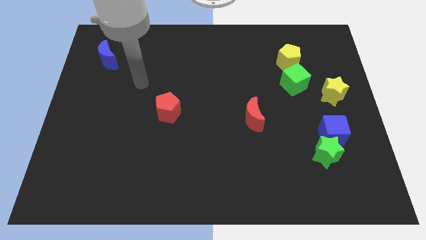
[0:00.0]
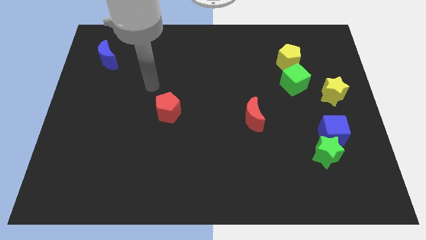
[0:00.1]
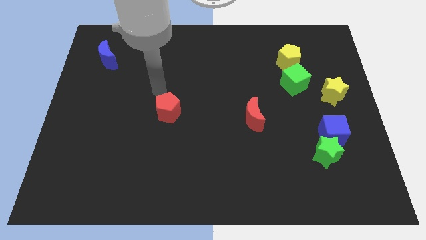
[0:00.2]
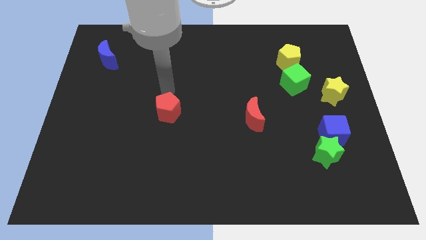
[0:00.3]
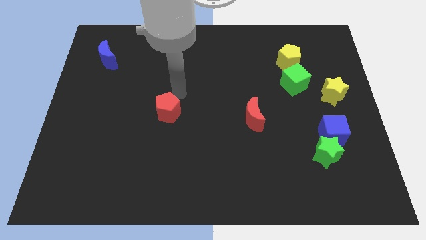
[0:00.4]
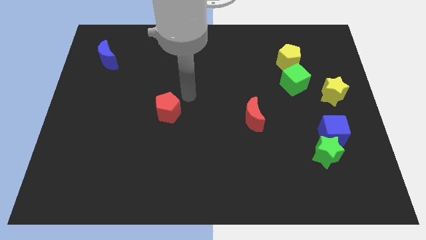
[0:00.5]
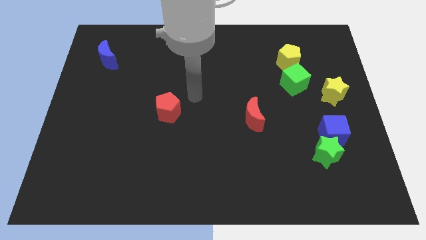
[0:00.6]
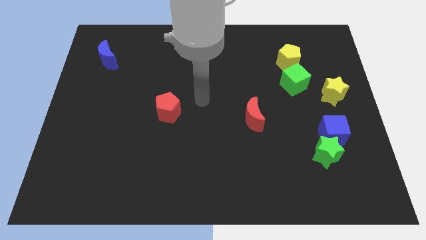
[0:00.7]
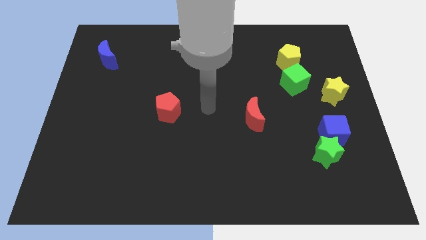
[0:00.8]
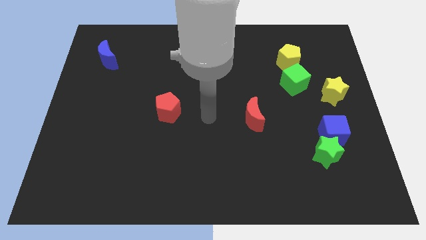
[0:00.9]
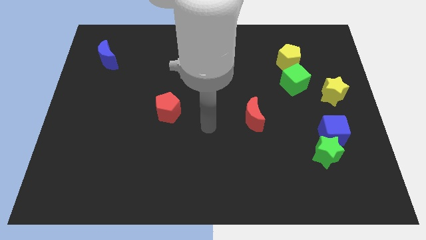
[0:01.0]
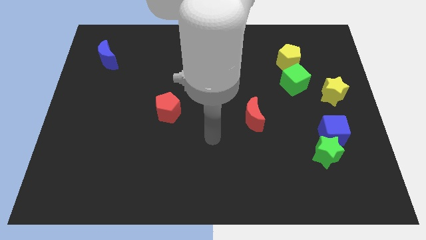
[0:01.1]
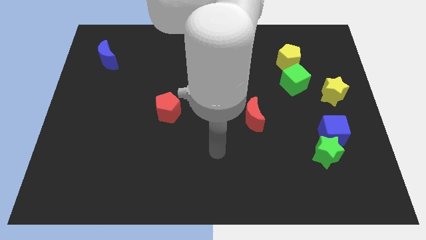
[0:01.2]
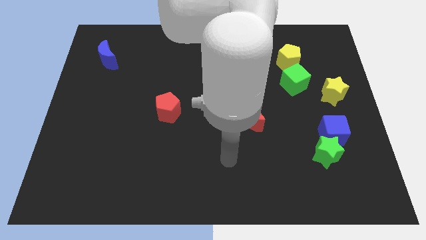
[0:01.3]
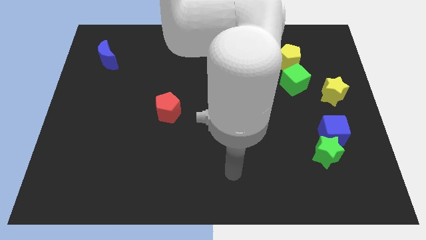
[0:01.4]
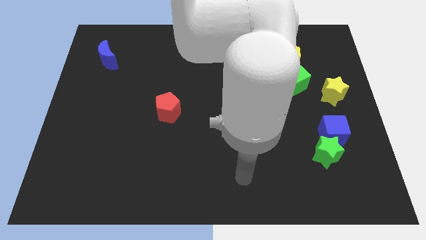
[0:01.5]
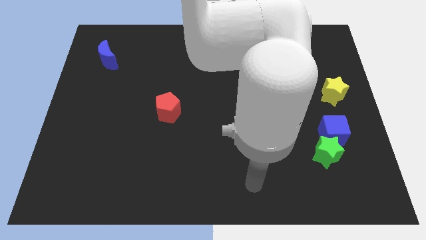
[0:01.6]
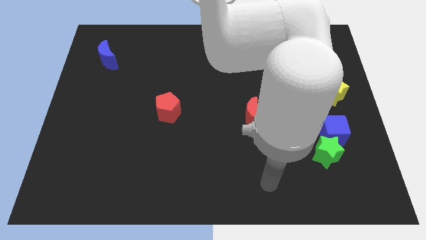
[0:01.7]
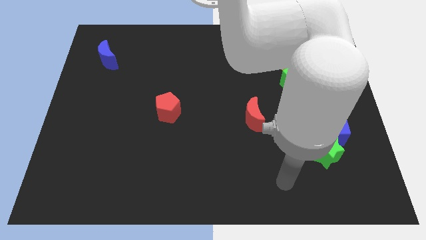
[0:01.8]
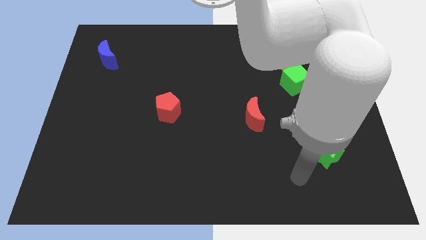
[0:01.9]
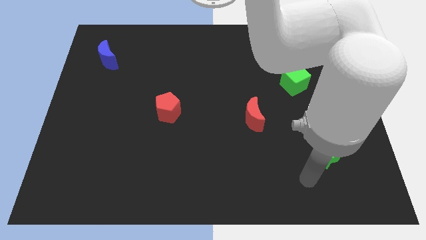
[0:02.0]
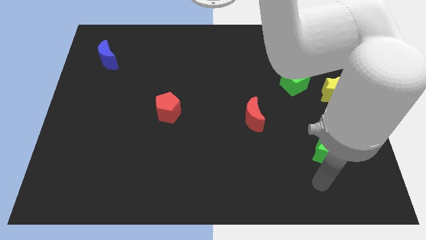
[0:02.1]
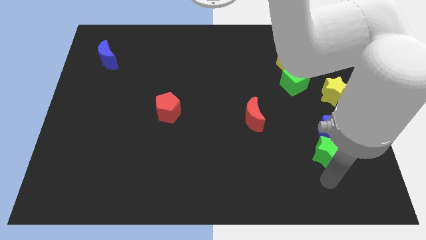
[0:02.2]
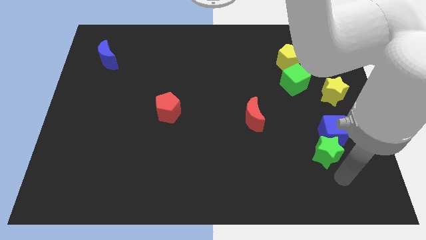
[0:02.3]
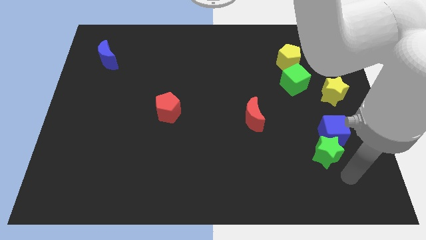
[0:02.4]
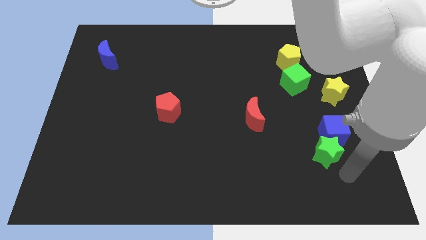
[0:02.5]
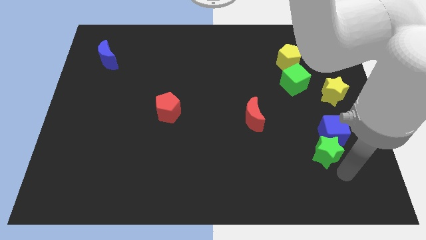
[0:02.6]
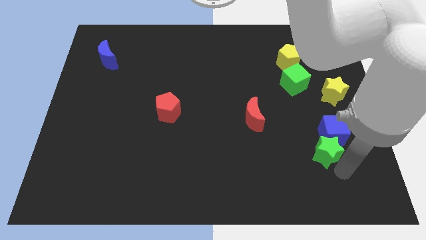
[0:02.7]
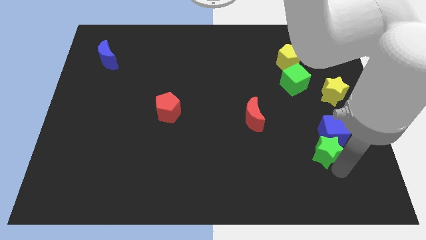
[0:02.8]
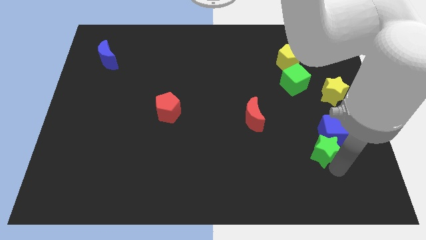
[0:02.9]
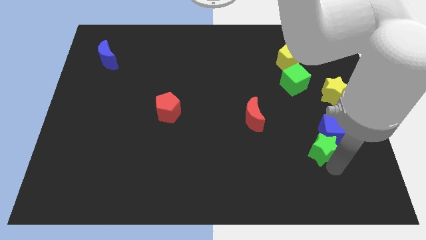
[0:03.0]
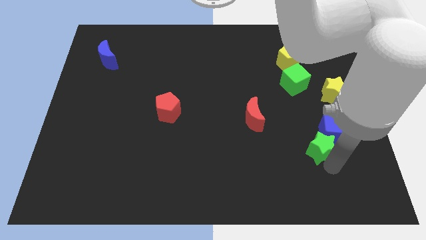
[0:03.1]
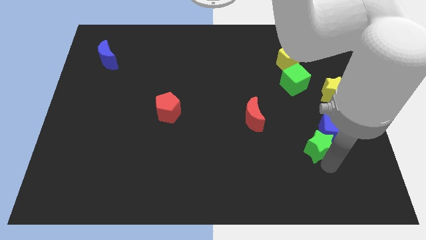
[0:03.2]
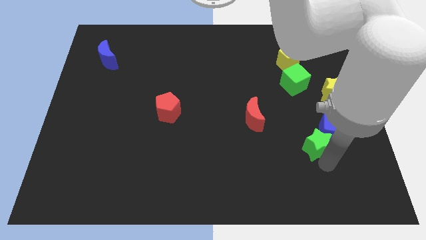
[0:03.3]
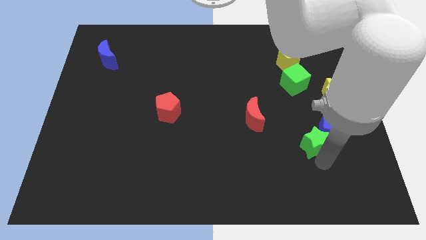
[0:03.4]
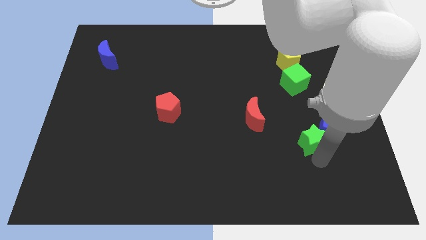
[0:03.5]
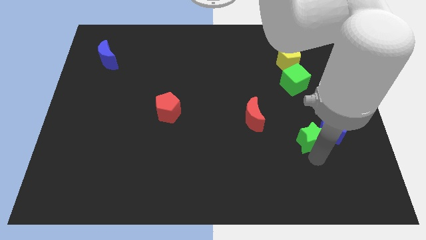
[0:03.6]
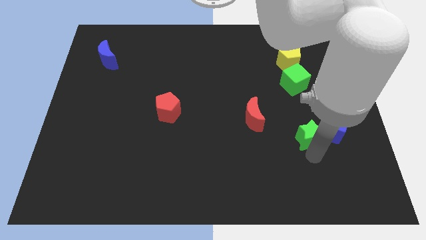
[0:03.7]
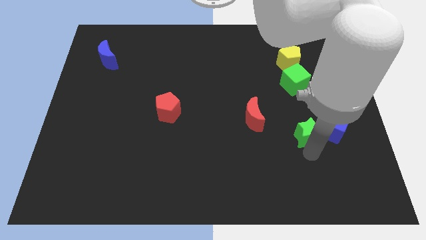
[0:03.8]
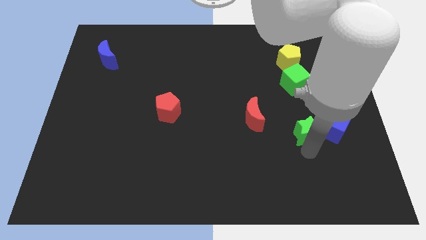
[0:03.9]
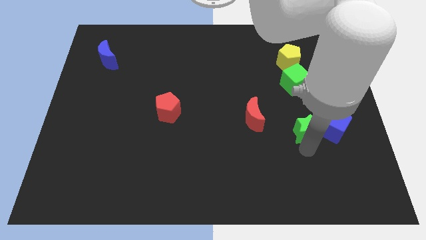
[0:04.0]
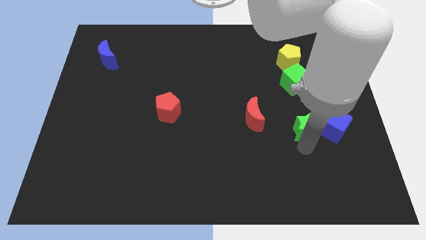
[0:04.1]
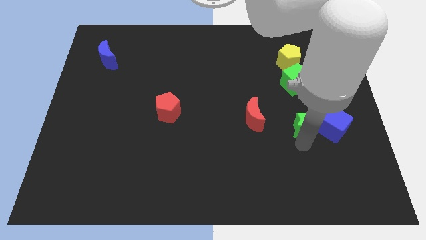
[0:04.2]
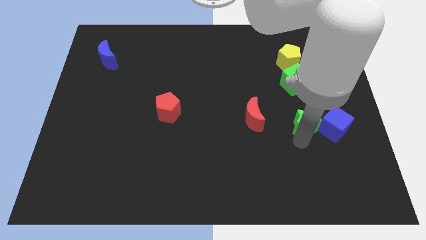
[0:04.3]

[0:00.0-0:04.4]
move the green star a little up

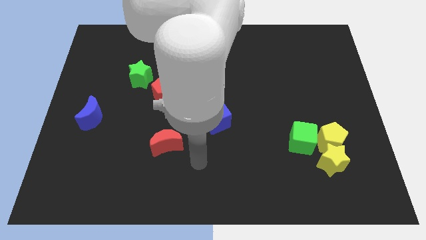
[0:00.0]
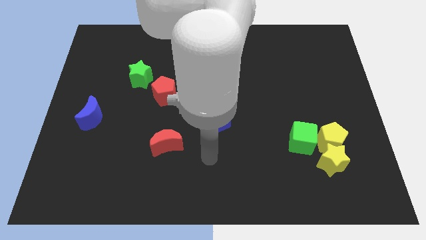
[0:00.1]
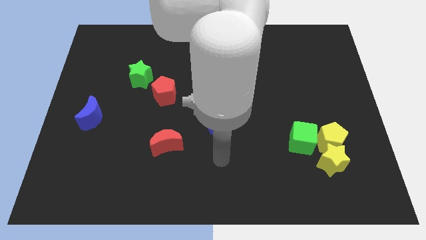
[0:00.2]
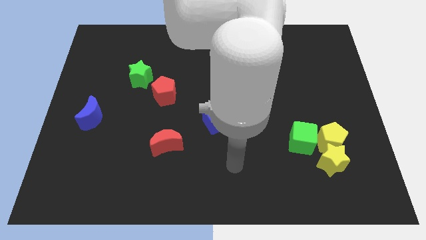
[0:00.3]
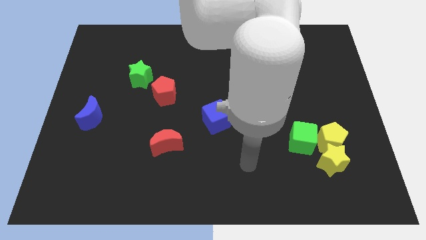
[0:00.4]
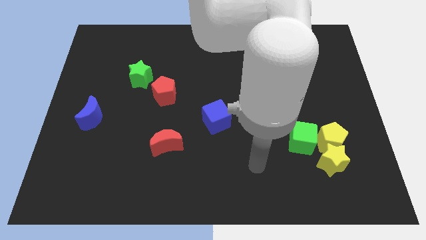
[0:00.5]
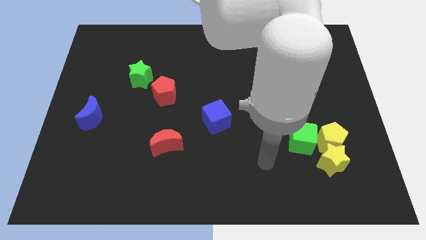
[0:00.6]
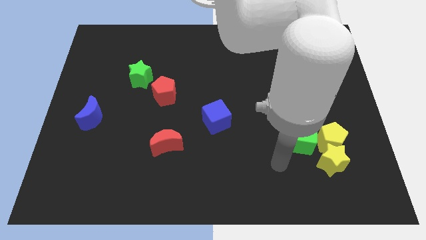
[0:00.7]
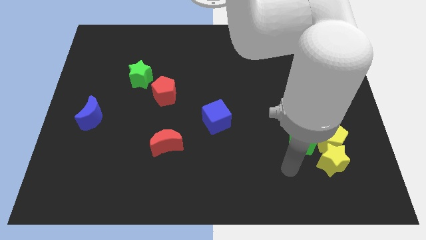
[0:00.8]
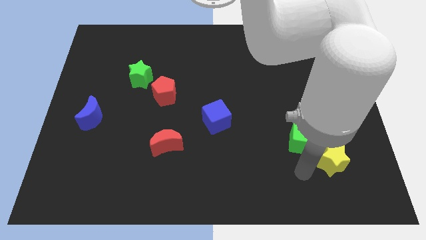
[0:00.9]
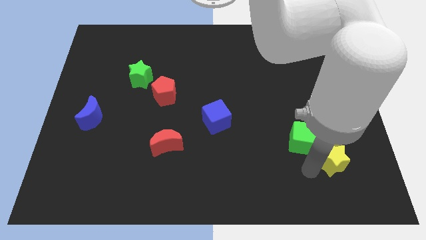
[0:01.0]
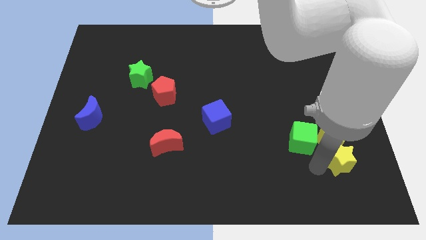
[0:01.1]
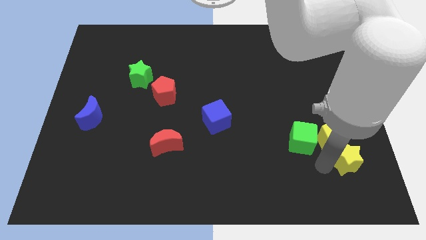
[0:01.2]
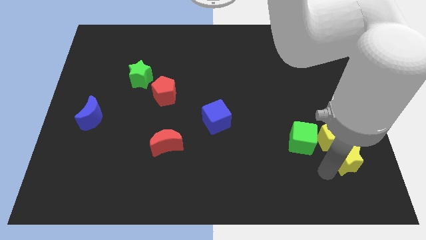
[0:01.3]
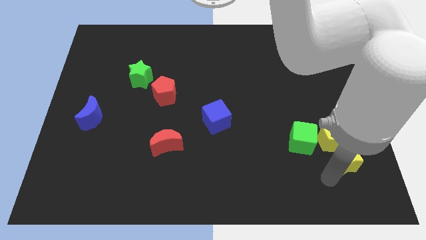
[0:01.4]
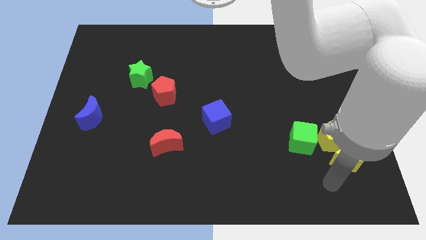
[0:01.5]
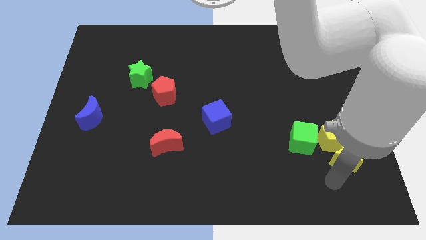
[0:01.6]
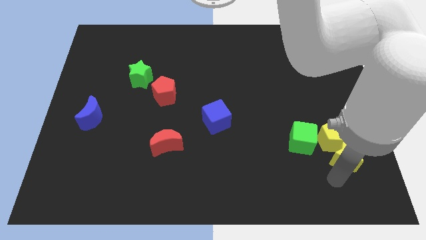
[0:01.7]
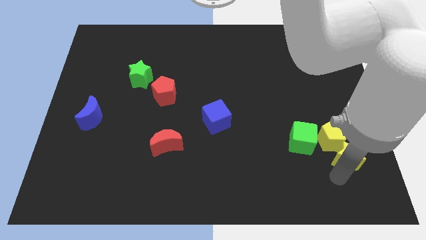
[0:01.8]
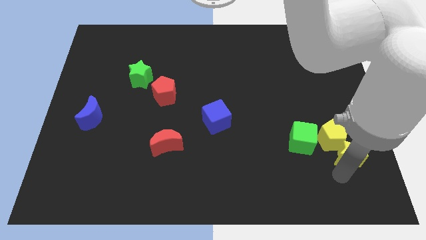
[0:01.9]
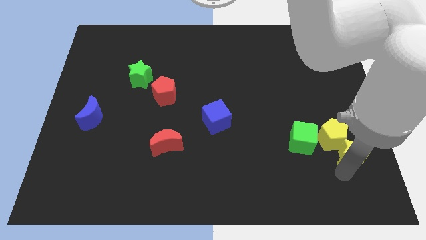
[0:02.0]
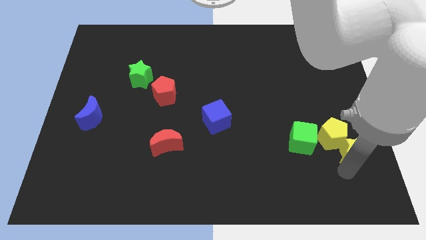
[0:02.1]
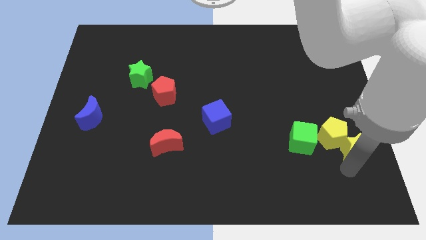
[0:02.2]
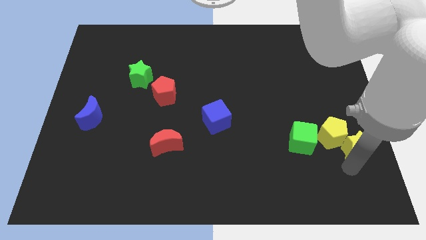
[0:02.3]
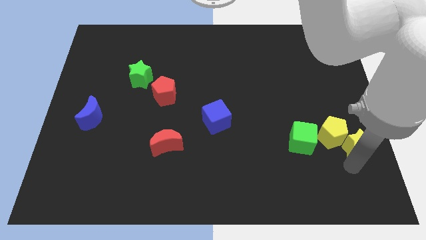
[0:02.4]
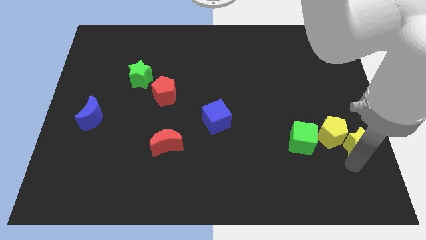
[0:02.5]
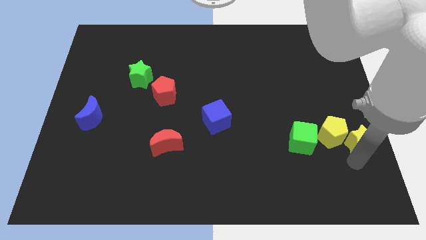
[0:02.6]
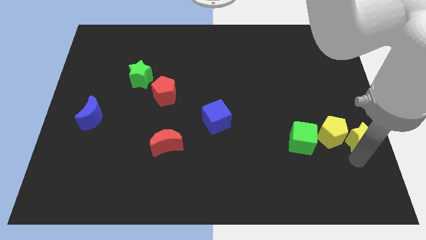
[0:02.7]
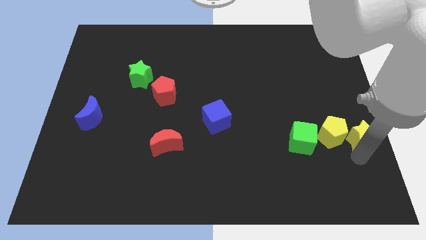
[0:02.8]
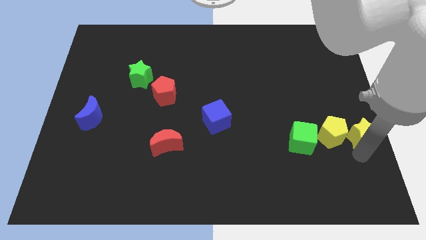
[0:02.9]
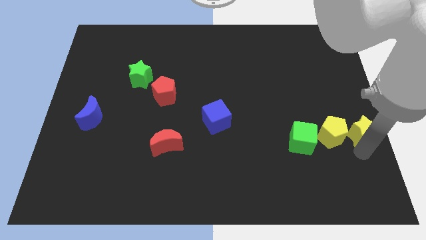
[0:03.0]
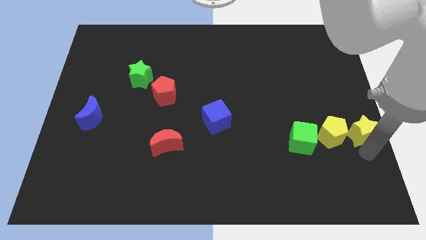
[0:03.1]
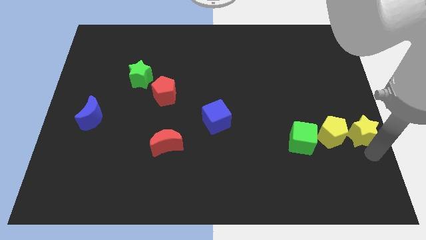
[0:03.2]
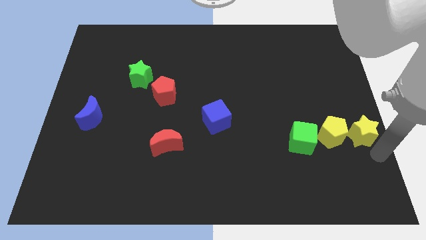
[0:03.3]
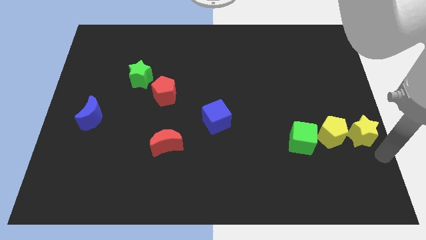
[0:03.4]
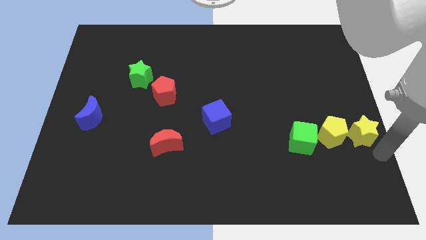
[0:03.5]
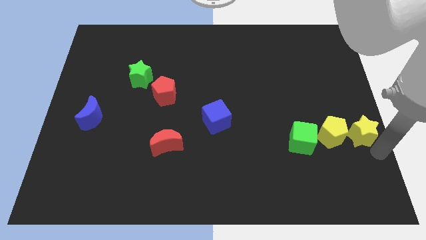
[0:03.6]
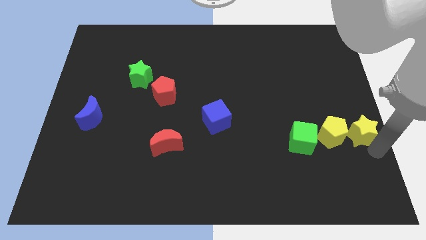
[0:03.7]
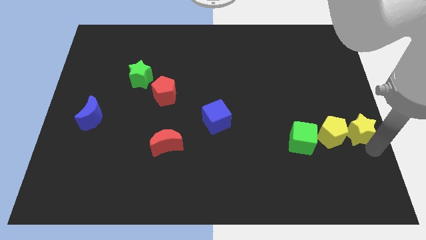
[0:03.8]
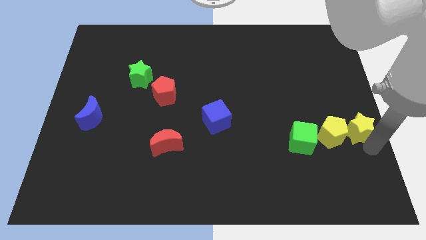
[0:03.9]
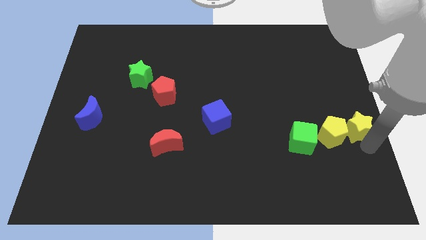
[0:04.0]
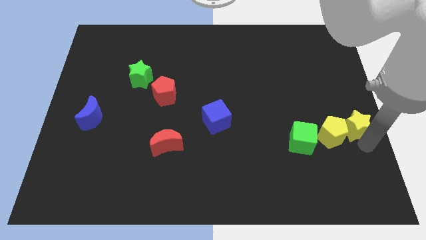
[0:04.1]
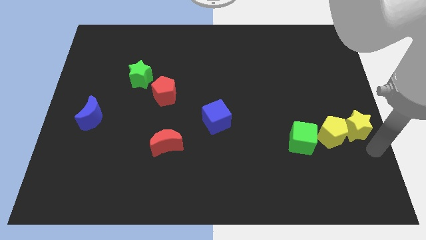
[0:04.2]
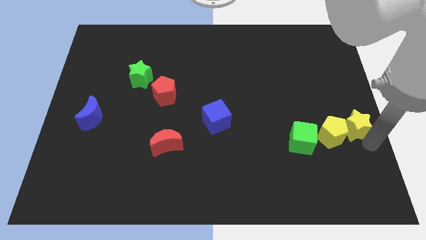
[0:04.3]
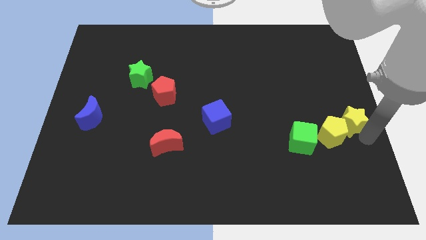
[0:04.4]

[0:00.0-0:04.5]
slightly move the yellow star up
